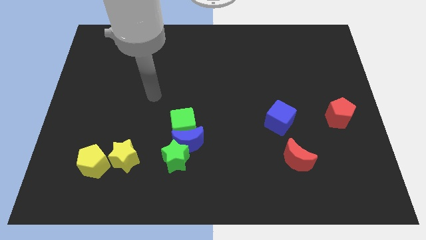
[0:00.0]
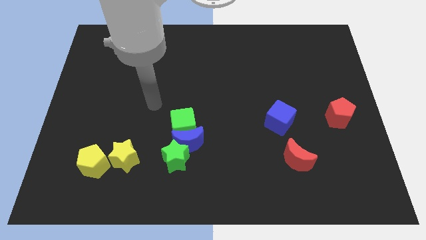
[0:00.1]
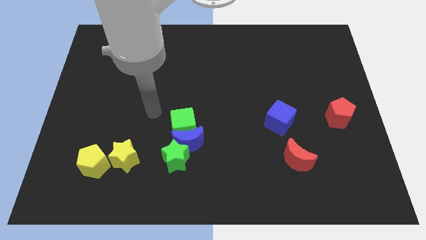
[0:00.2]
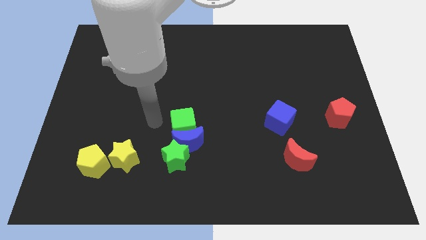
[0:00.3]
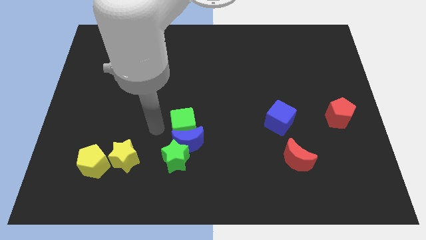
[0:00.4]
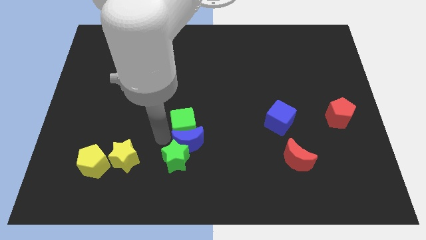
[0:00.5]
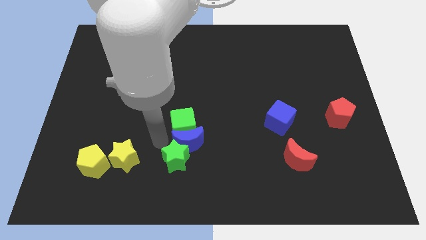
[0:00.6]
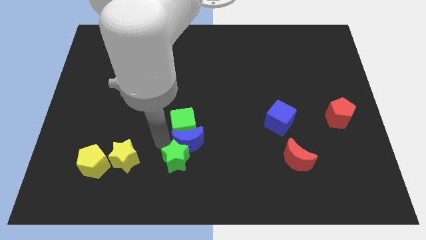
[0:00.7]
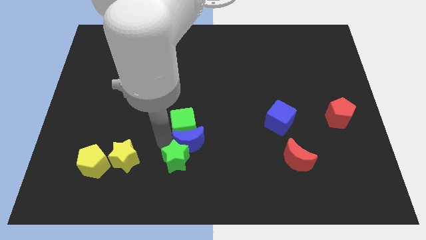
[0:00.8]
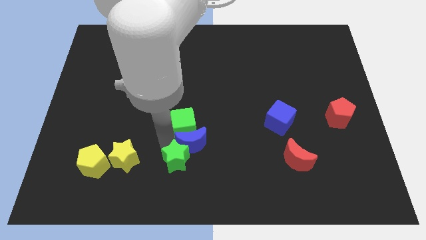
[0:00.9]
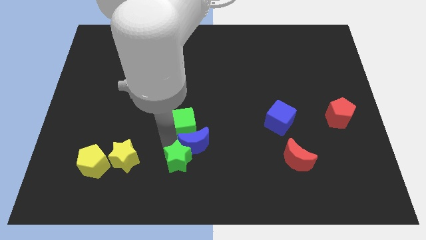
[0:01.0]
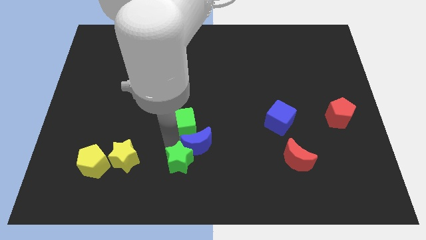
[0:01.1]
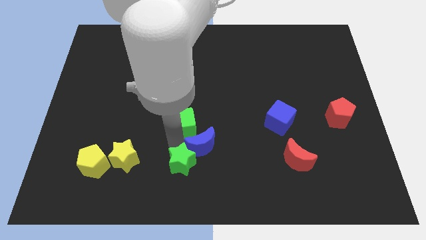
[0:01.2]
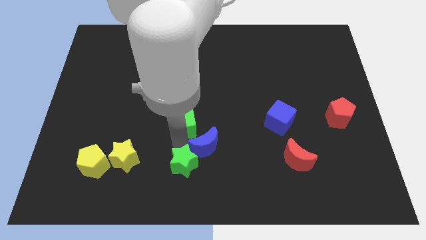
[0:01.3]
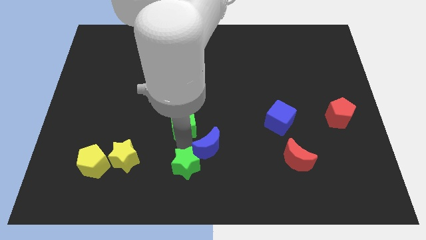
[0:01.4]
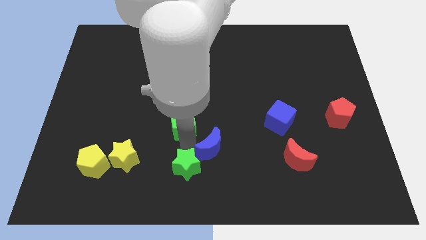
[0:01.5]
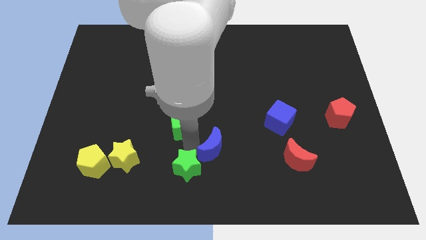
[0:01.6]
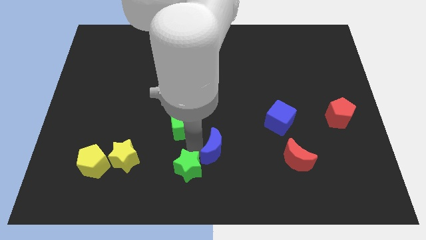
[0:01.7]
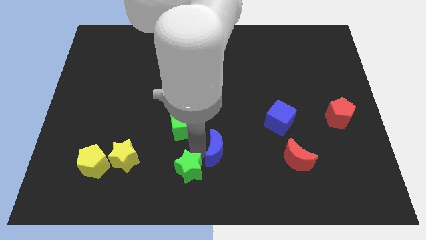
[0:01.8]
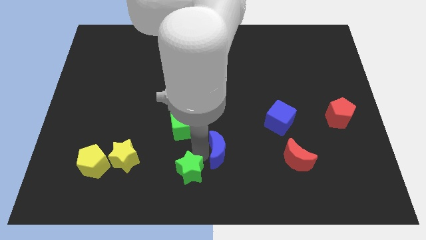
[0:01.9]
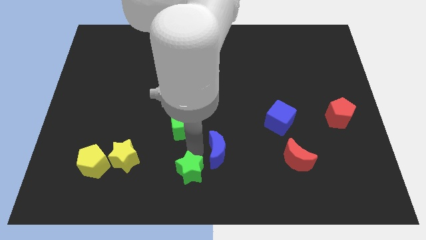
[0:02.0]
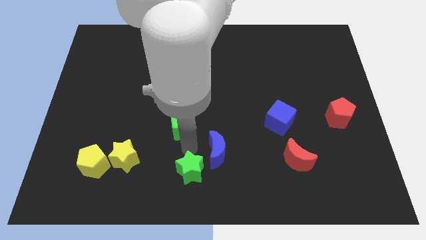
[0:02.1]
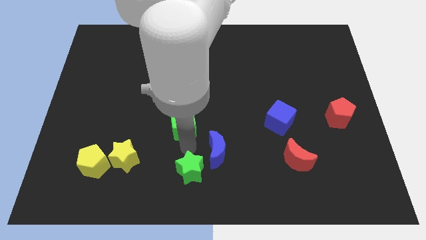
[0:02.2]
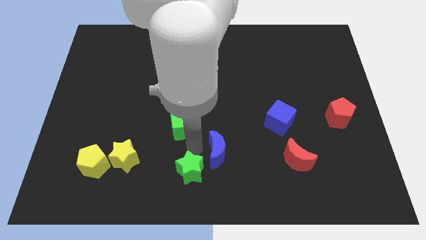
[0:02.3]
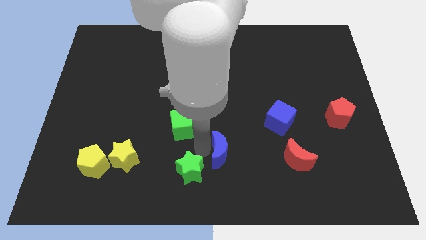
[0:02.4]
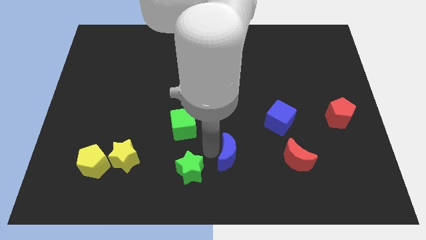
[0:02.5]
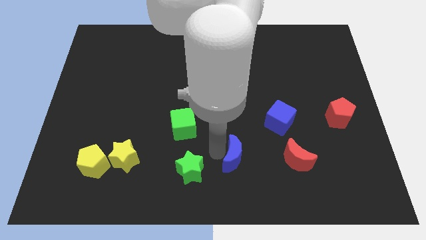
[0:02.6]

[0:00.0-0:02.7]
pull the blue moon apart from the green cube and green star

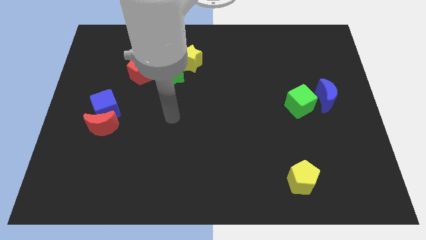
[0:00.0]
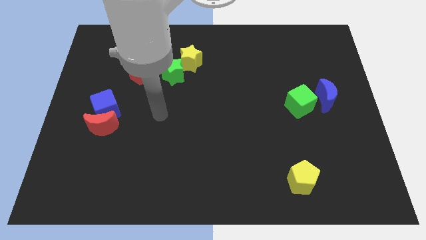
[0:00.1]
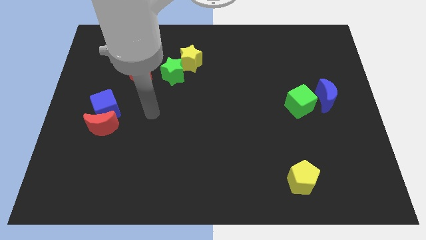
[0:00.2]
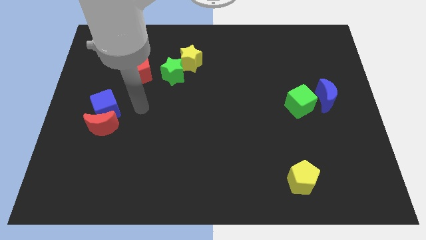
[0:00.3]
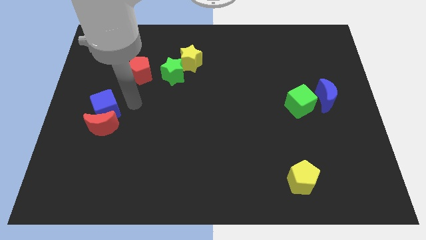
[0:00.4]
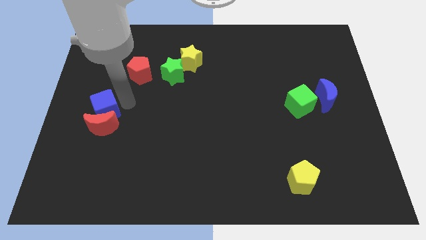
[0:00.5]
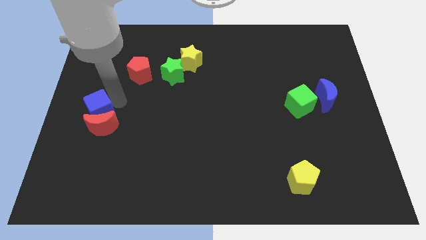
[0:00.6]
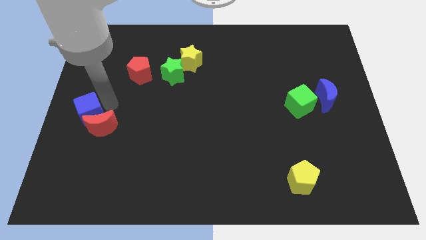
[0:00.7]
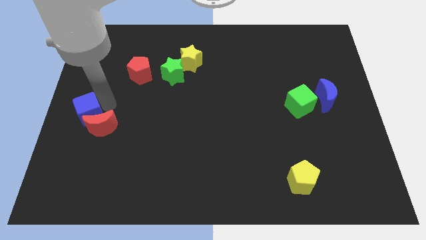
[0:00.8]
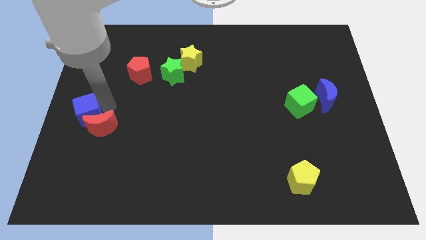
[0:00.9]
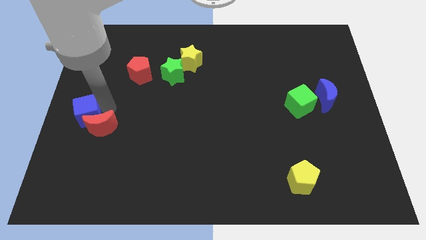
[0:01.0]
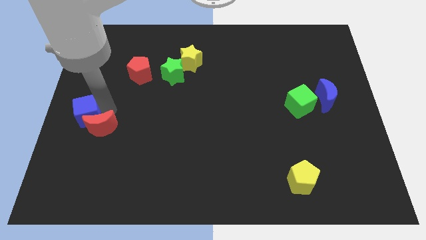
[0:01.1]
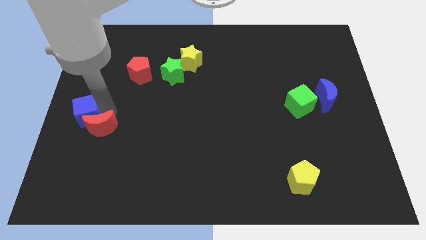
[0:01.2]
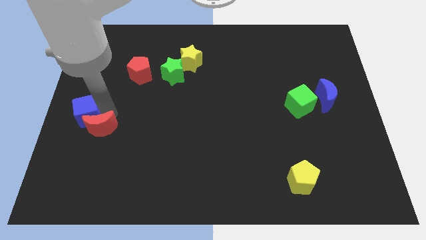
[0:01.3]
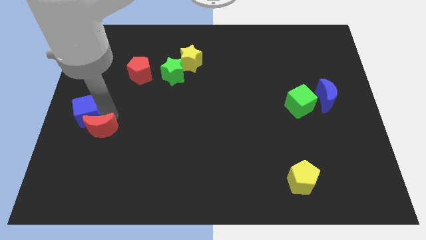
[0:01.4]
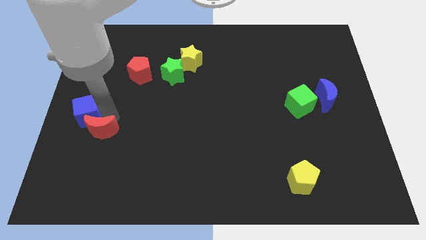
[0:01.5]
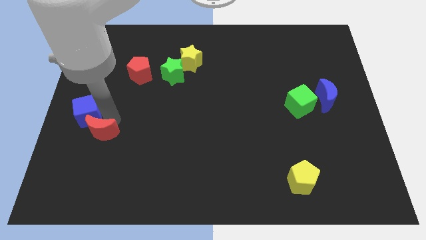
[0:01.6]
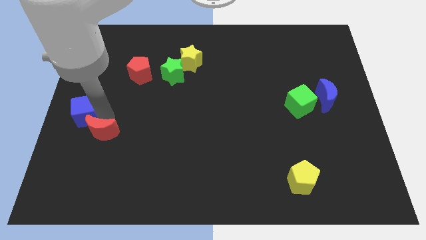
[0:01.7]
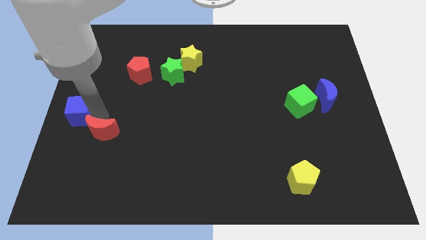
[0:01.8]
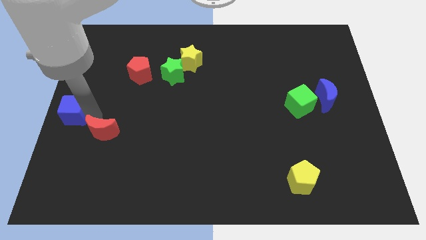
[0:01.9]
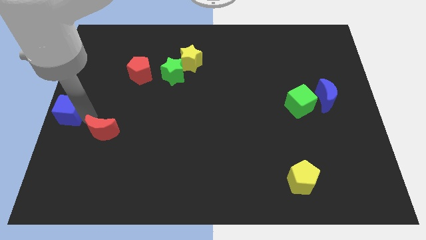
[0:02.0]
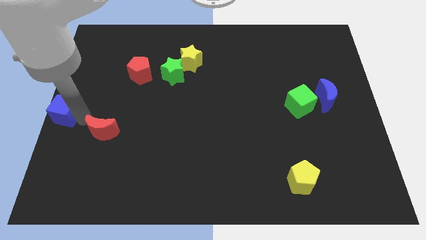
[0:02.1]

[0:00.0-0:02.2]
separate the red moon from the blue cube

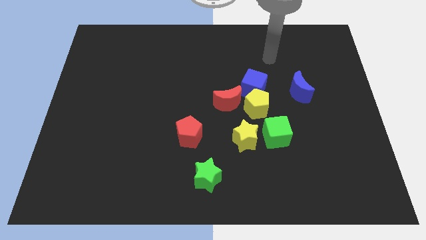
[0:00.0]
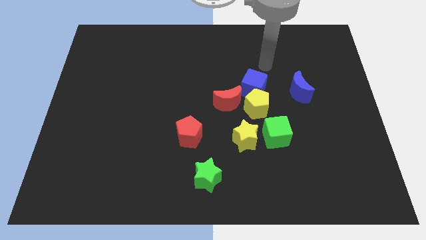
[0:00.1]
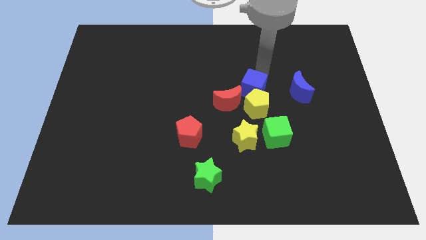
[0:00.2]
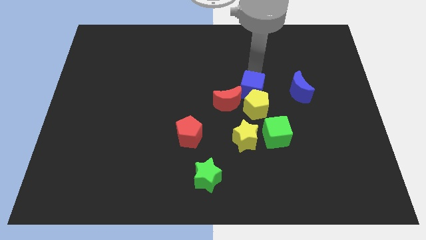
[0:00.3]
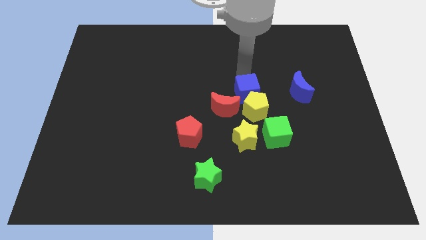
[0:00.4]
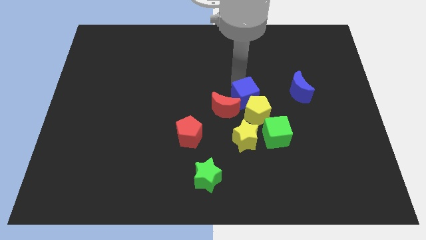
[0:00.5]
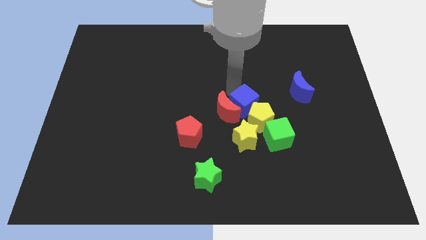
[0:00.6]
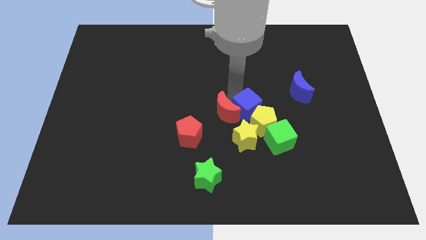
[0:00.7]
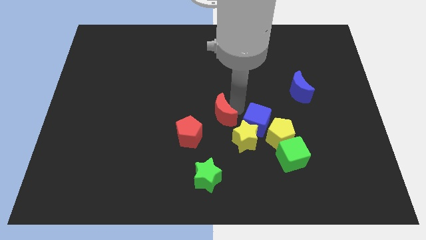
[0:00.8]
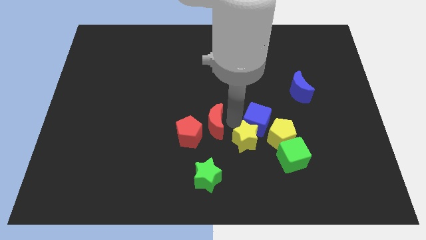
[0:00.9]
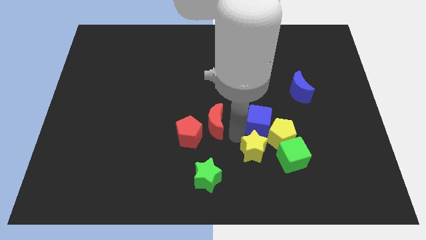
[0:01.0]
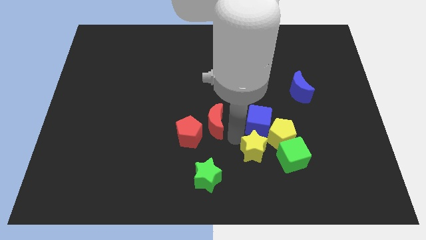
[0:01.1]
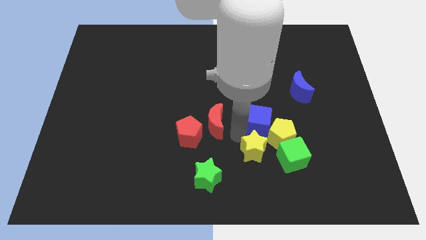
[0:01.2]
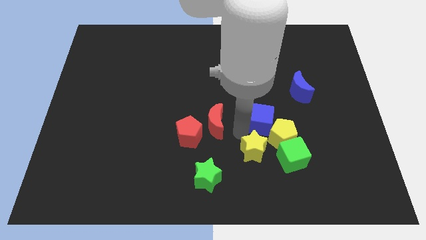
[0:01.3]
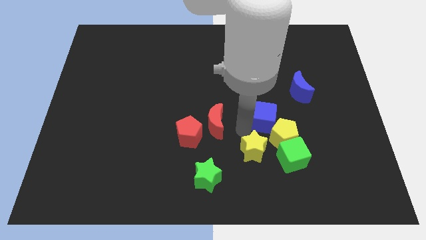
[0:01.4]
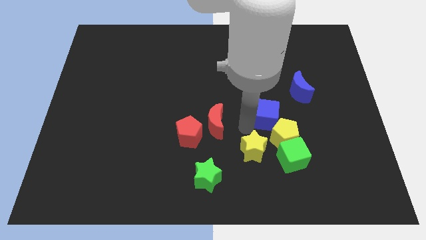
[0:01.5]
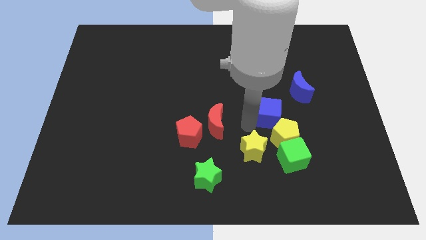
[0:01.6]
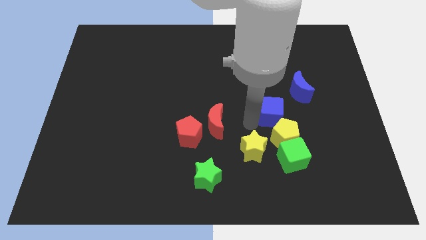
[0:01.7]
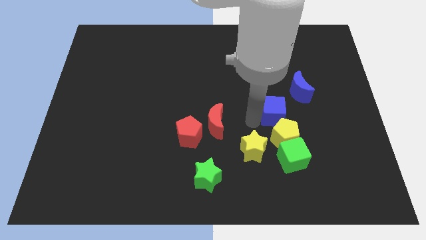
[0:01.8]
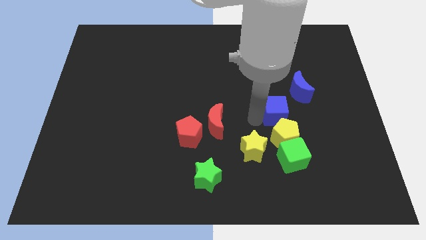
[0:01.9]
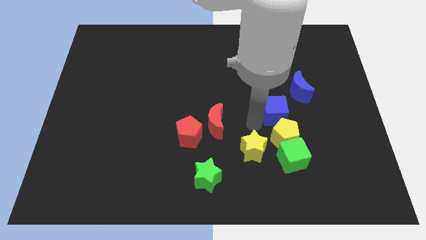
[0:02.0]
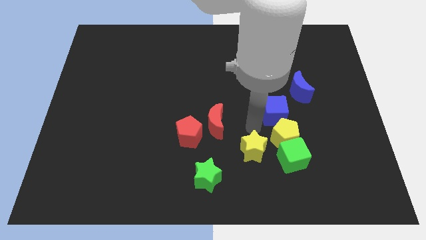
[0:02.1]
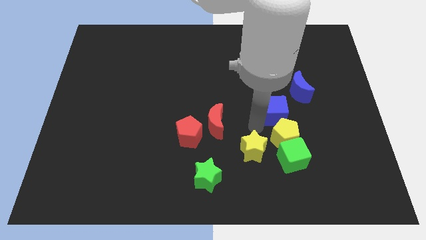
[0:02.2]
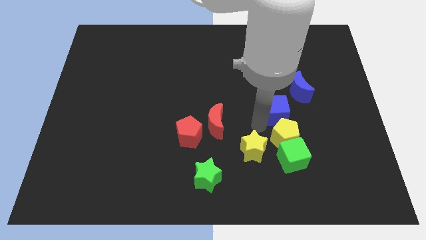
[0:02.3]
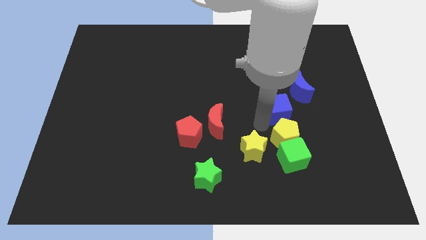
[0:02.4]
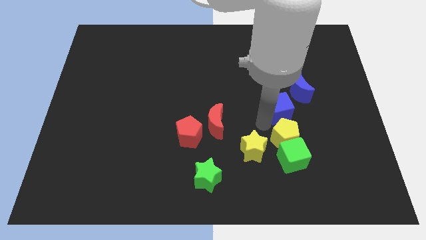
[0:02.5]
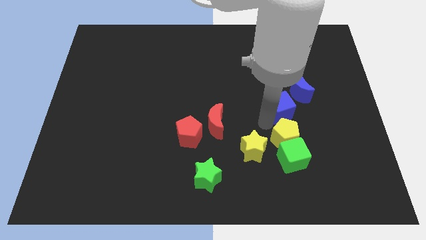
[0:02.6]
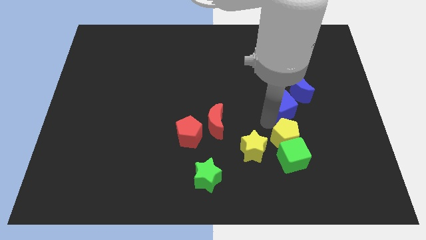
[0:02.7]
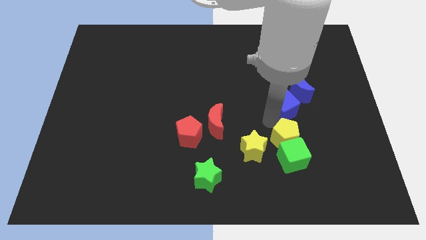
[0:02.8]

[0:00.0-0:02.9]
pull the blue cube apart from the yellow pentagon and red moon

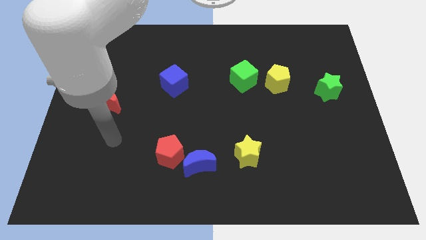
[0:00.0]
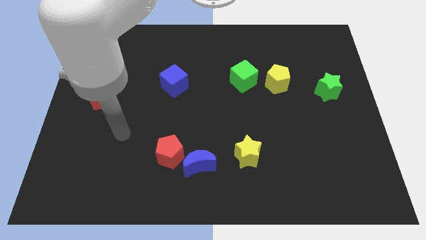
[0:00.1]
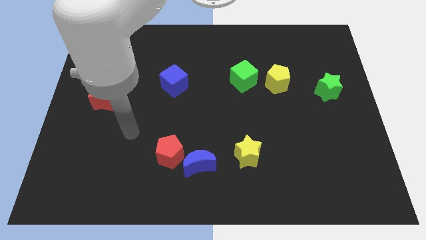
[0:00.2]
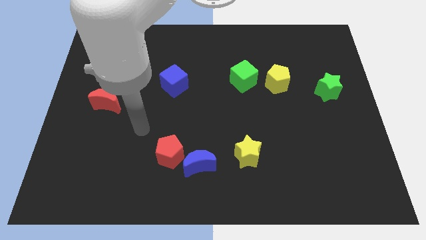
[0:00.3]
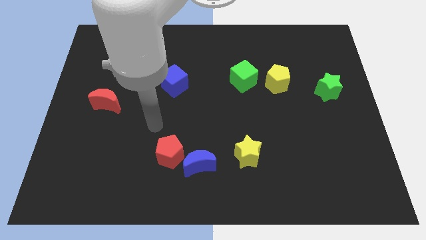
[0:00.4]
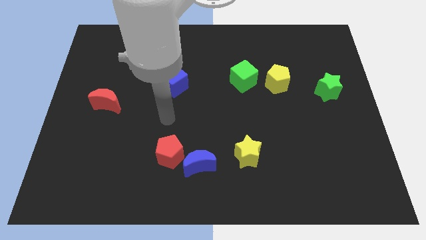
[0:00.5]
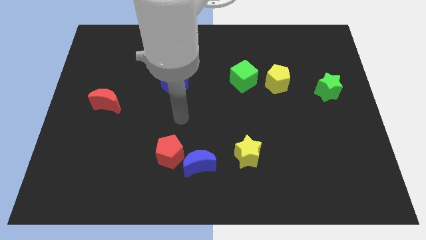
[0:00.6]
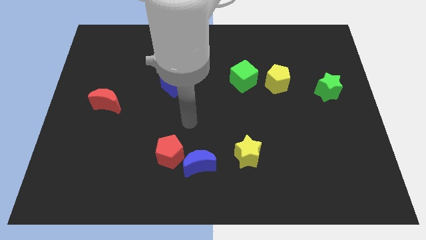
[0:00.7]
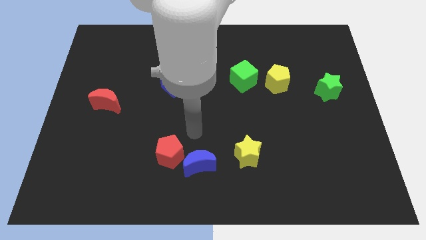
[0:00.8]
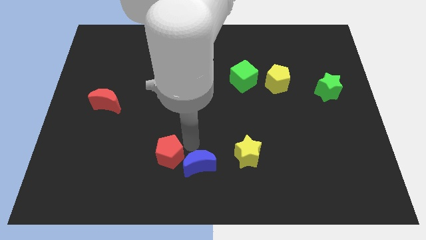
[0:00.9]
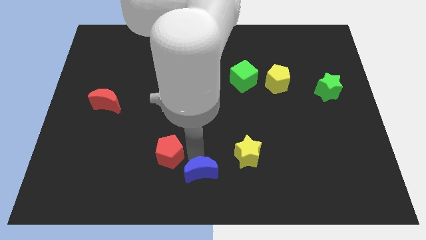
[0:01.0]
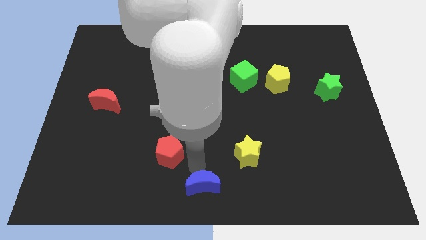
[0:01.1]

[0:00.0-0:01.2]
move the red pentagon away from the blue moon

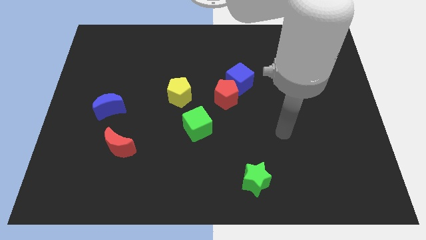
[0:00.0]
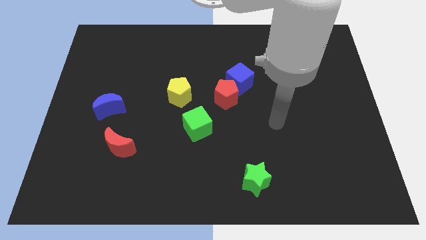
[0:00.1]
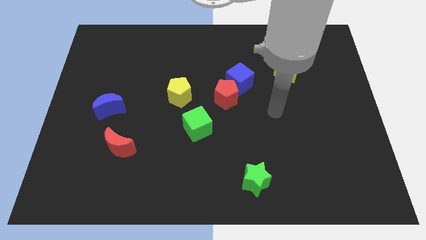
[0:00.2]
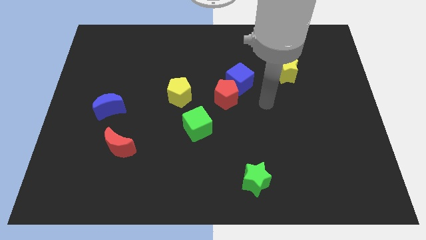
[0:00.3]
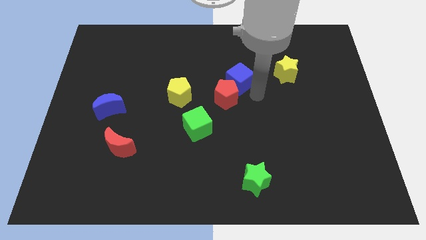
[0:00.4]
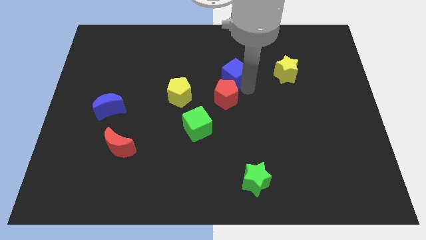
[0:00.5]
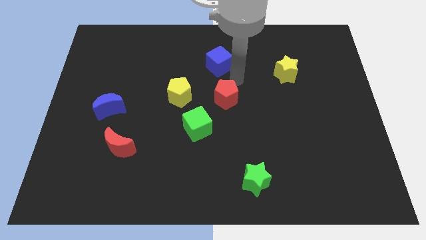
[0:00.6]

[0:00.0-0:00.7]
move the red pentagon away from the blue cube
